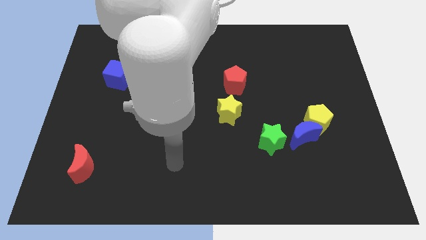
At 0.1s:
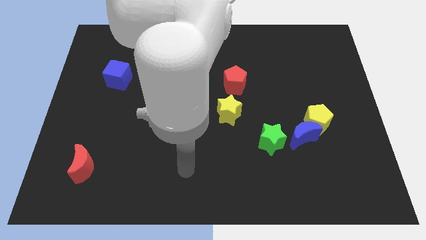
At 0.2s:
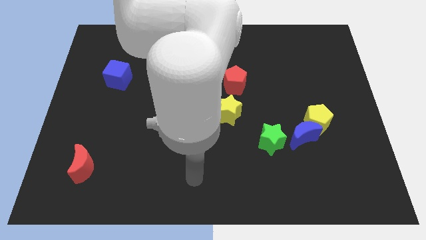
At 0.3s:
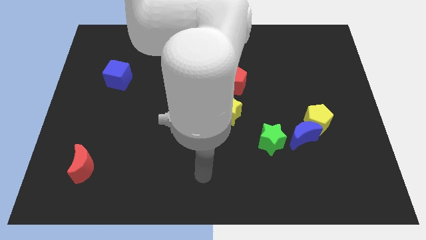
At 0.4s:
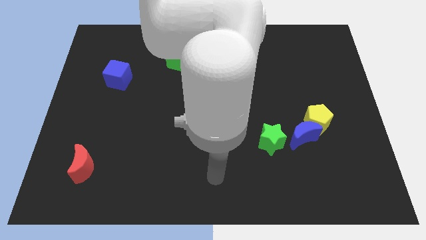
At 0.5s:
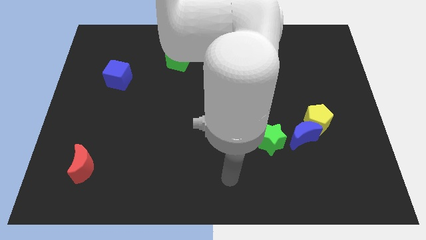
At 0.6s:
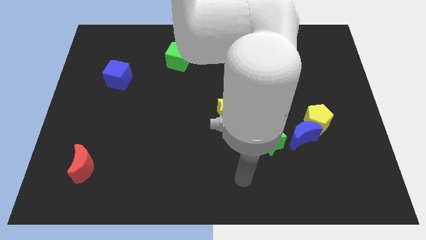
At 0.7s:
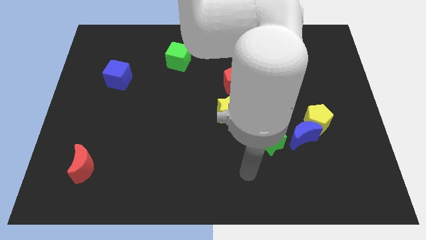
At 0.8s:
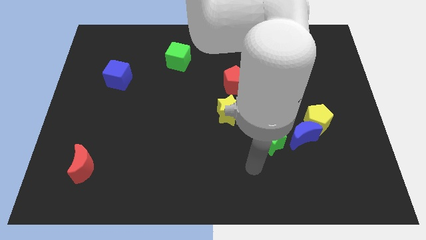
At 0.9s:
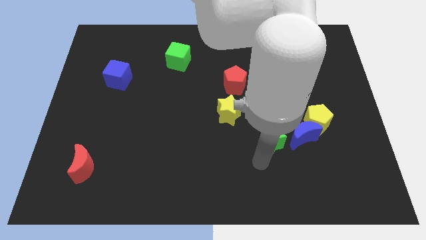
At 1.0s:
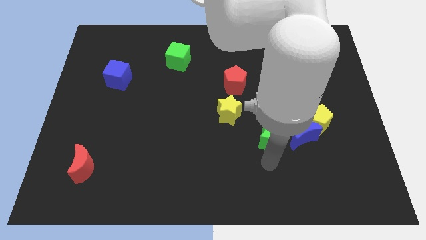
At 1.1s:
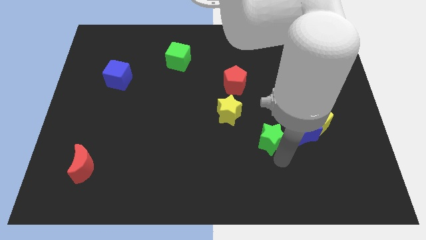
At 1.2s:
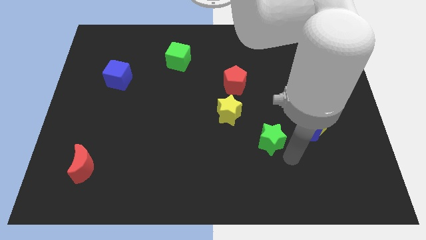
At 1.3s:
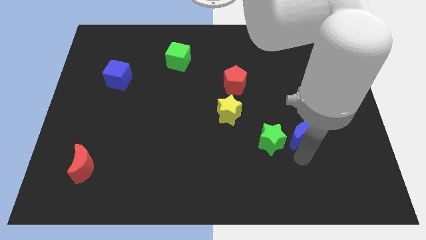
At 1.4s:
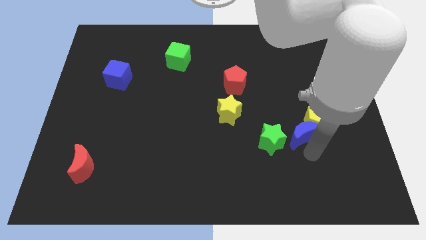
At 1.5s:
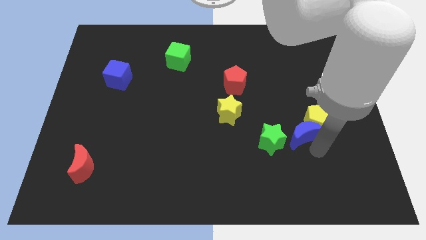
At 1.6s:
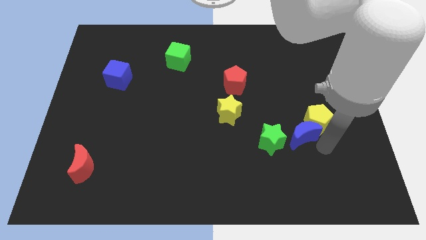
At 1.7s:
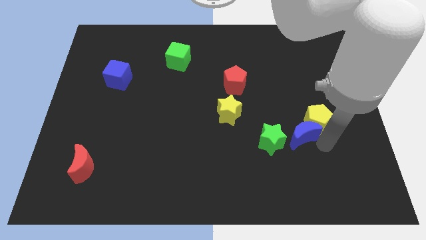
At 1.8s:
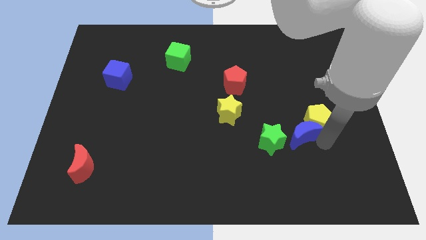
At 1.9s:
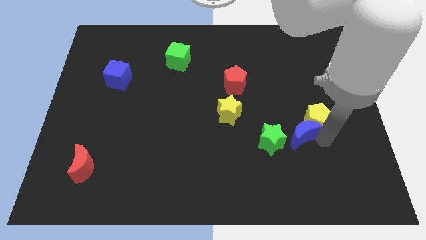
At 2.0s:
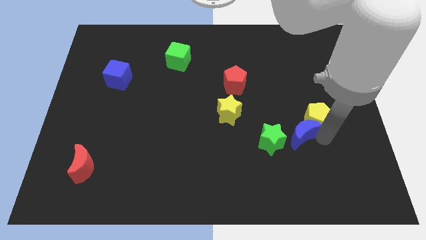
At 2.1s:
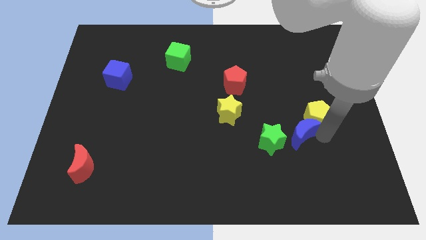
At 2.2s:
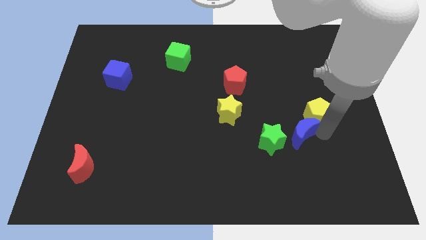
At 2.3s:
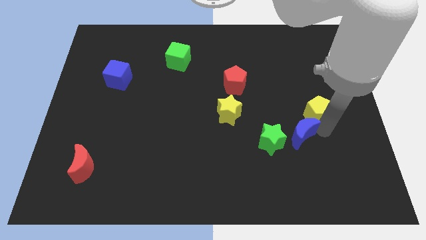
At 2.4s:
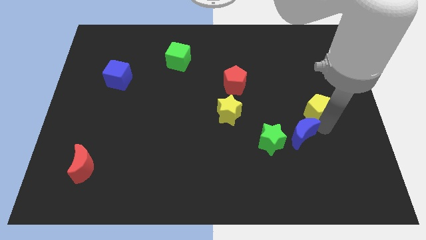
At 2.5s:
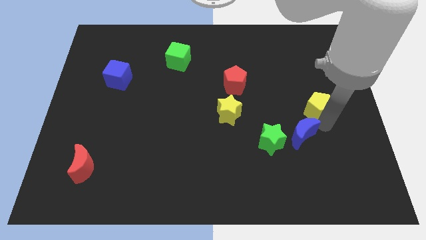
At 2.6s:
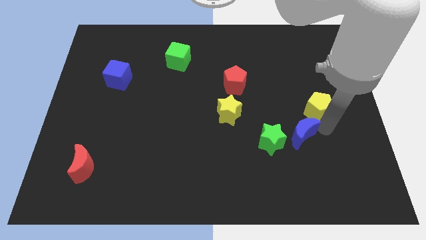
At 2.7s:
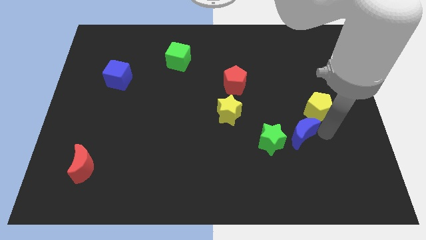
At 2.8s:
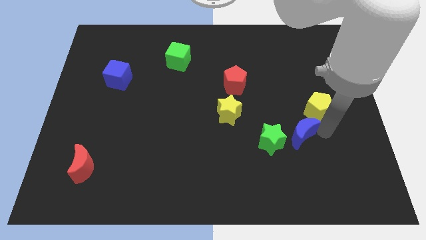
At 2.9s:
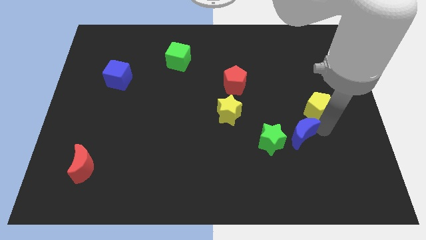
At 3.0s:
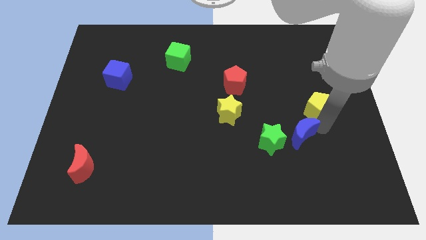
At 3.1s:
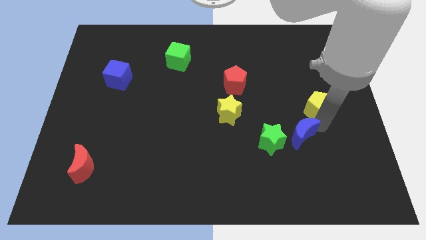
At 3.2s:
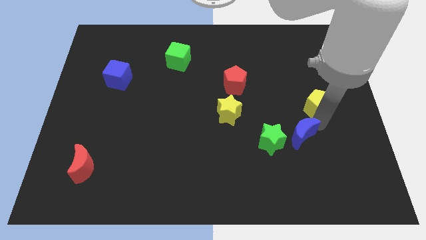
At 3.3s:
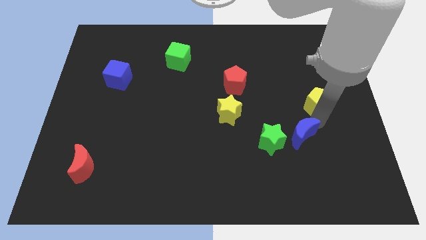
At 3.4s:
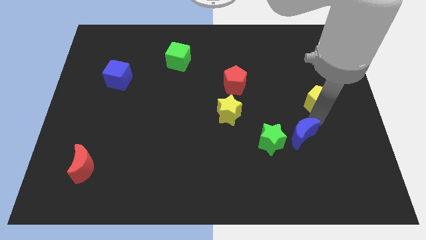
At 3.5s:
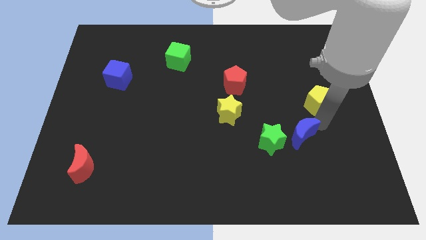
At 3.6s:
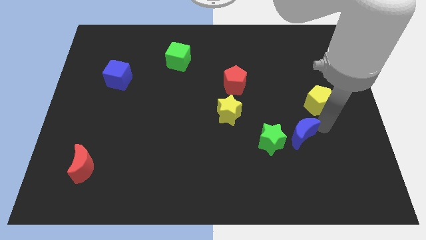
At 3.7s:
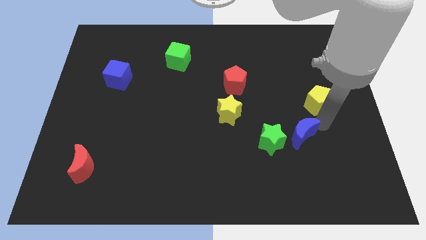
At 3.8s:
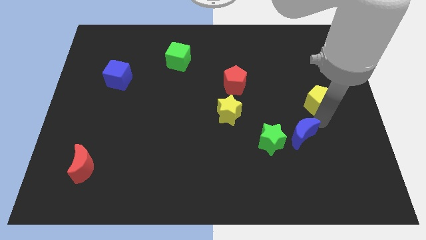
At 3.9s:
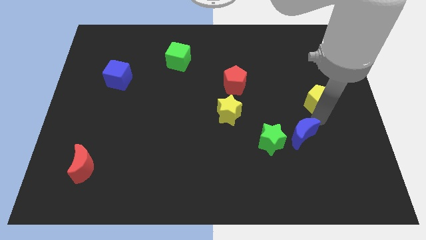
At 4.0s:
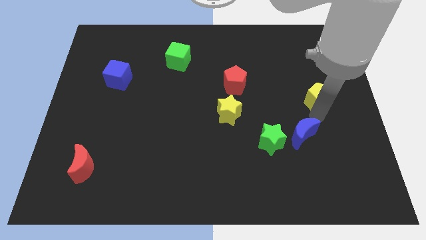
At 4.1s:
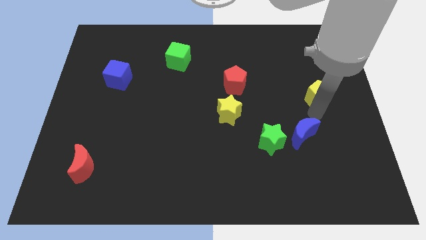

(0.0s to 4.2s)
slightly move the yellow pentagon upwards

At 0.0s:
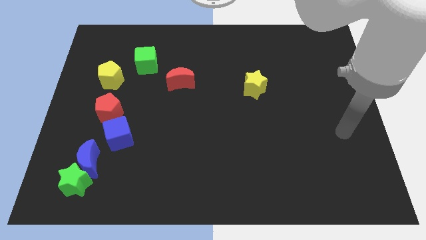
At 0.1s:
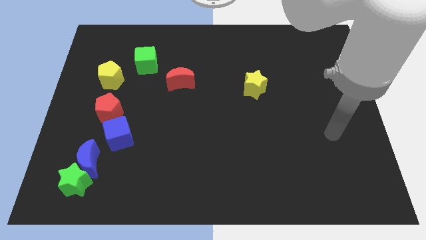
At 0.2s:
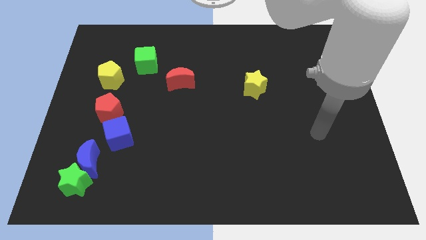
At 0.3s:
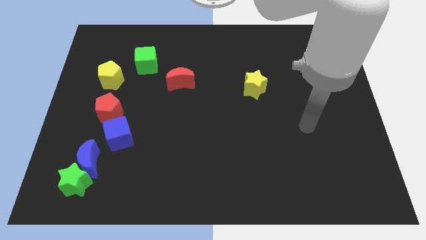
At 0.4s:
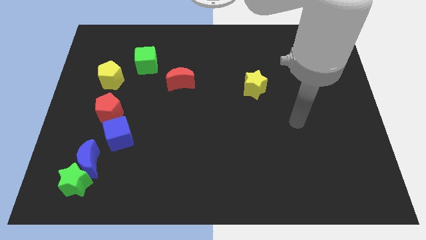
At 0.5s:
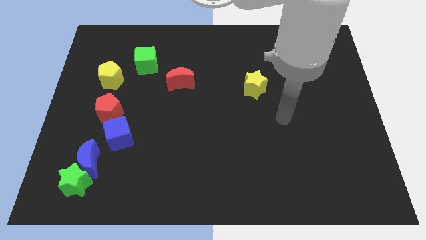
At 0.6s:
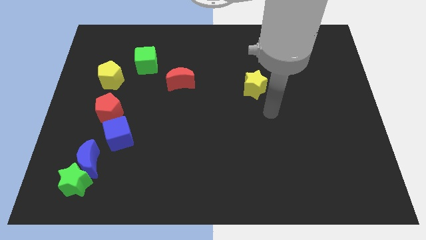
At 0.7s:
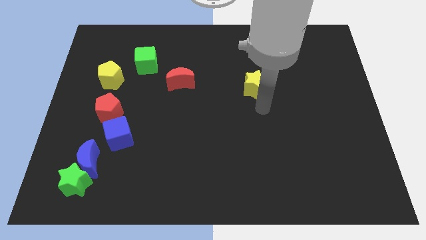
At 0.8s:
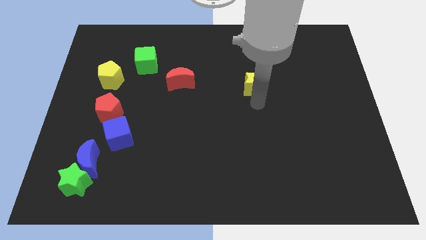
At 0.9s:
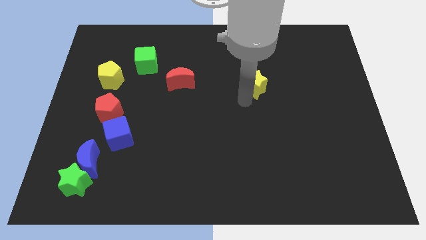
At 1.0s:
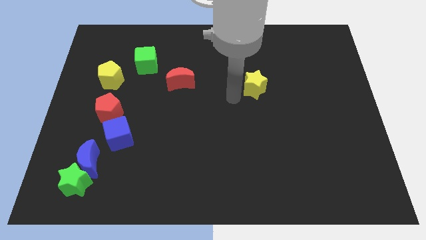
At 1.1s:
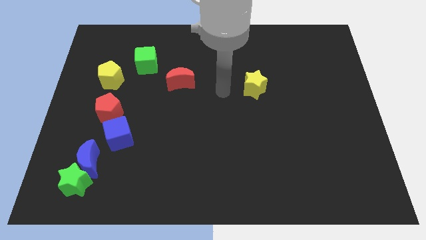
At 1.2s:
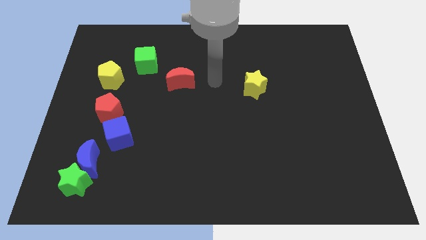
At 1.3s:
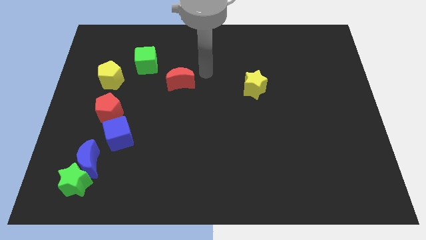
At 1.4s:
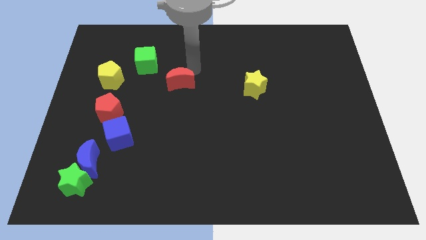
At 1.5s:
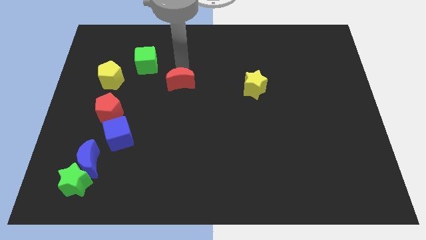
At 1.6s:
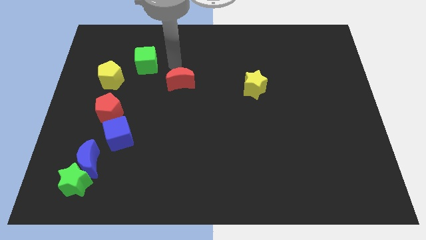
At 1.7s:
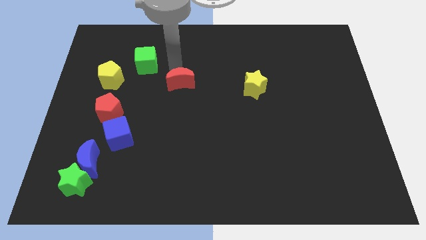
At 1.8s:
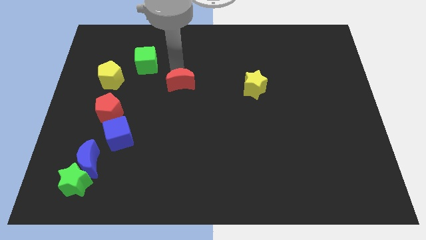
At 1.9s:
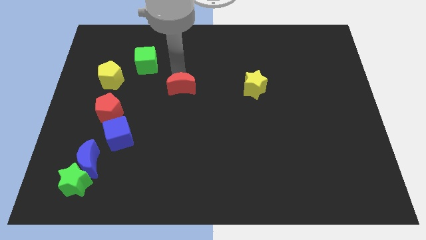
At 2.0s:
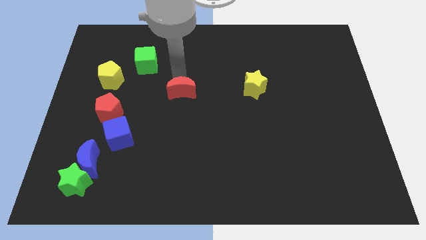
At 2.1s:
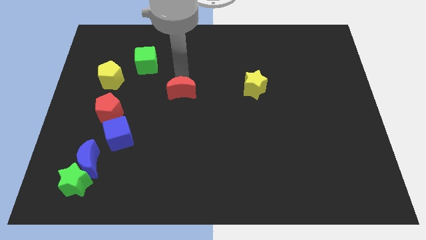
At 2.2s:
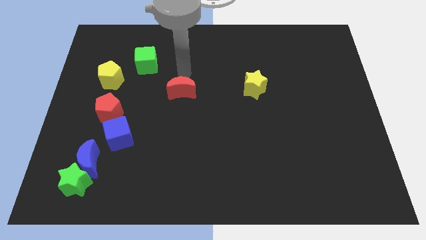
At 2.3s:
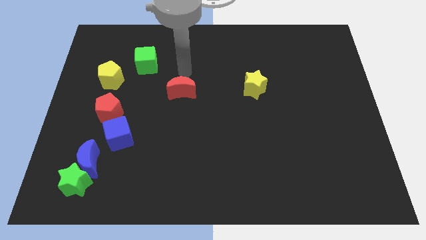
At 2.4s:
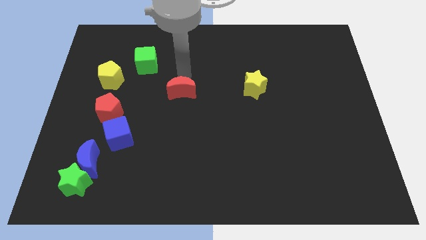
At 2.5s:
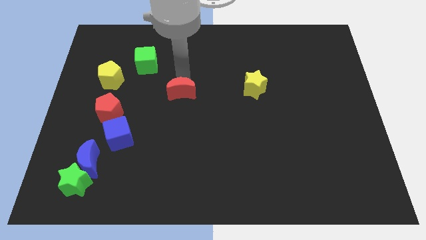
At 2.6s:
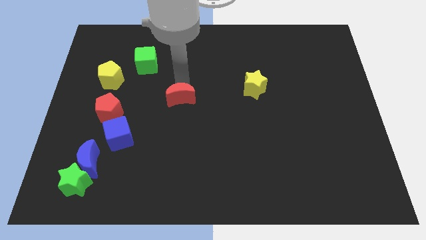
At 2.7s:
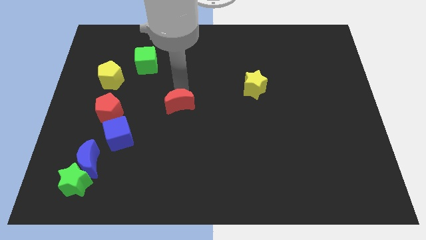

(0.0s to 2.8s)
push the red moon down a little bit

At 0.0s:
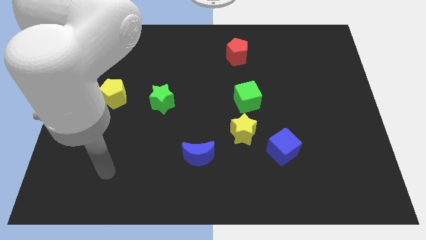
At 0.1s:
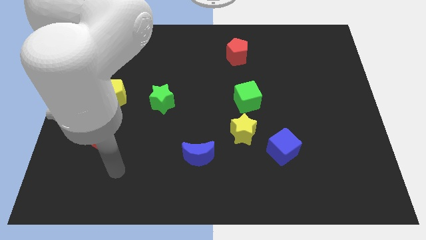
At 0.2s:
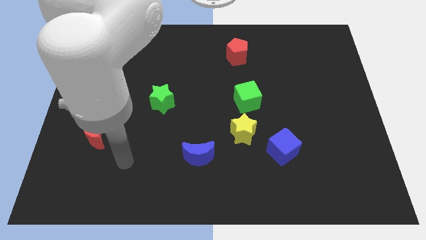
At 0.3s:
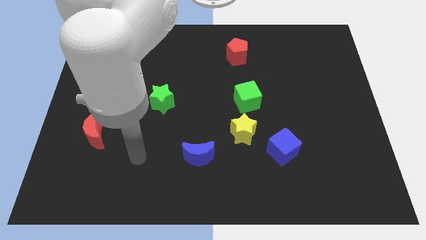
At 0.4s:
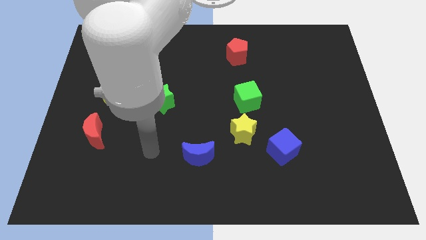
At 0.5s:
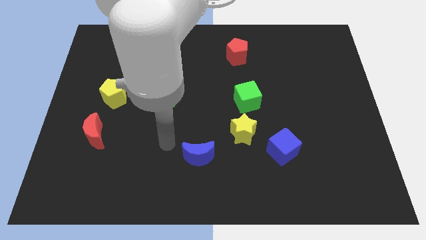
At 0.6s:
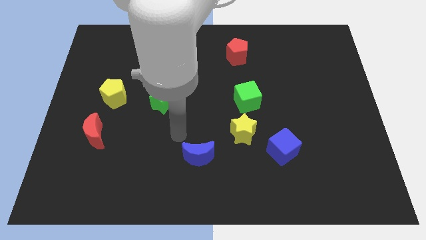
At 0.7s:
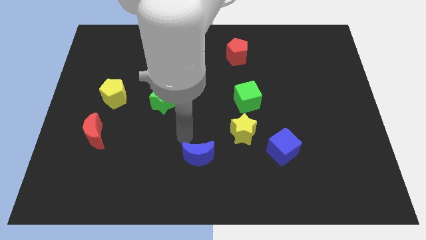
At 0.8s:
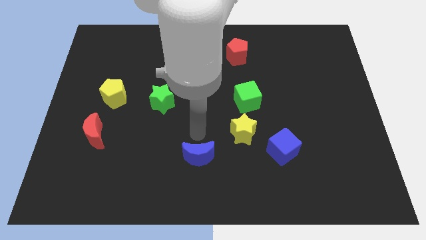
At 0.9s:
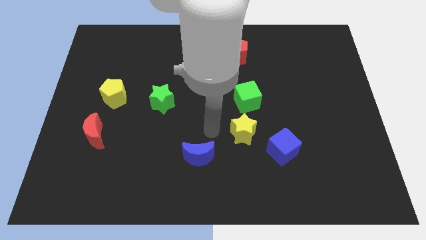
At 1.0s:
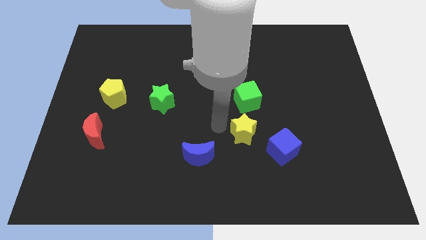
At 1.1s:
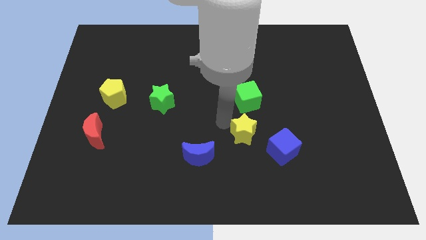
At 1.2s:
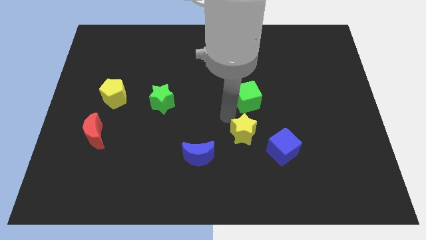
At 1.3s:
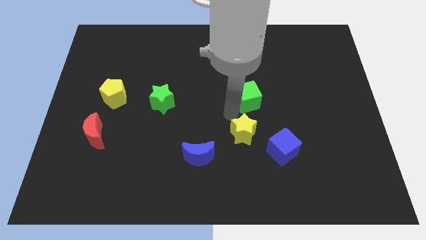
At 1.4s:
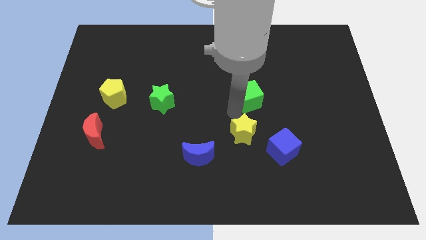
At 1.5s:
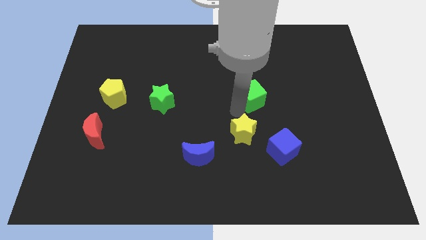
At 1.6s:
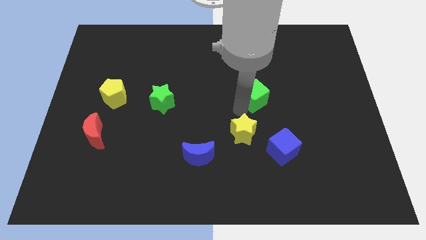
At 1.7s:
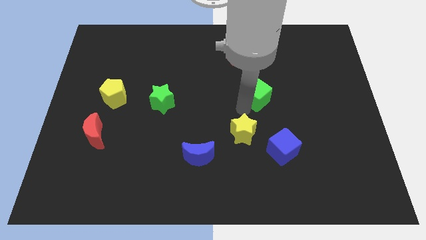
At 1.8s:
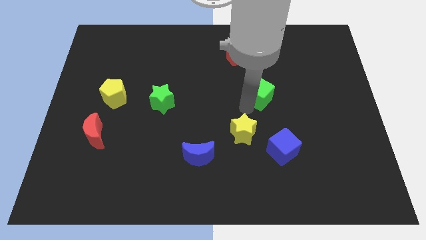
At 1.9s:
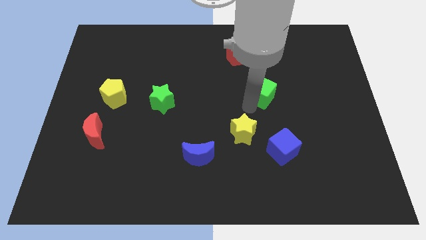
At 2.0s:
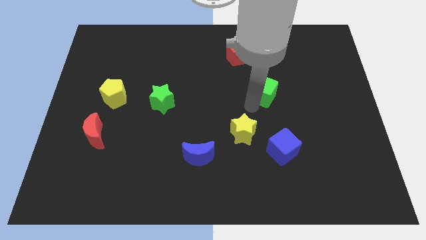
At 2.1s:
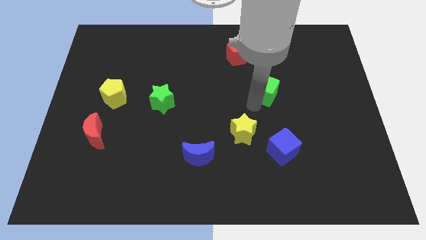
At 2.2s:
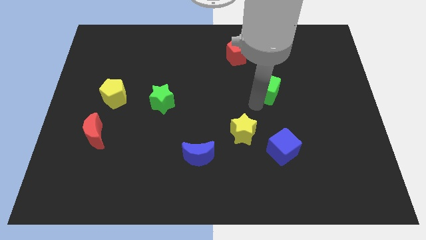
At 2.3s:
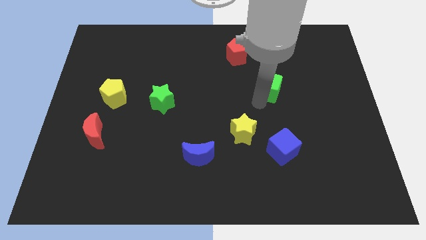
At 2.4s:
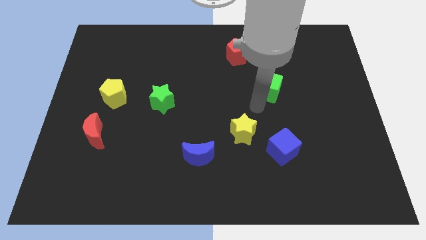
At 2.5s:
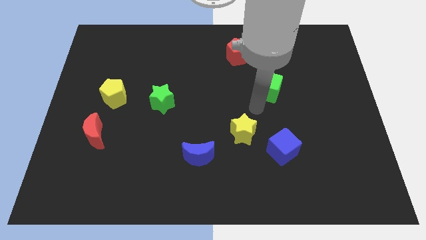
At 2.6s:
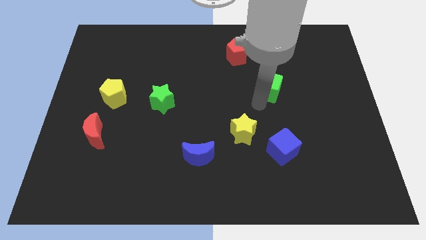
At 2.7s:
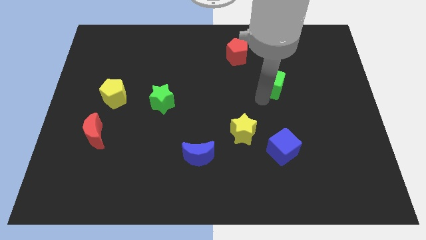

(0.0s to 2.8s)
move the green cube a bit upwards and then right
